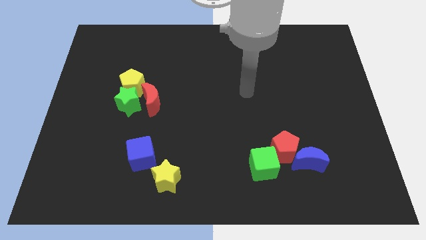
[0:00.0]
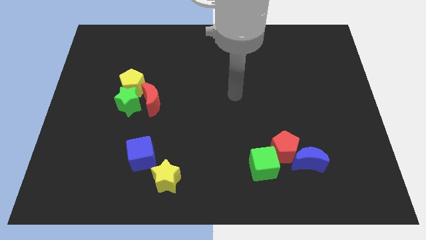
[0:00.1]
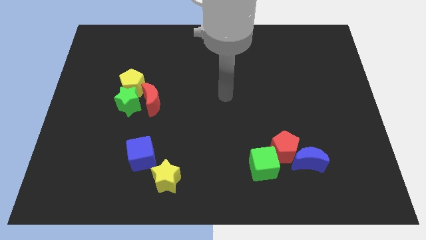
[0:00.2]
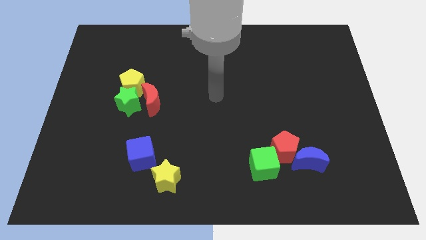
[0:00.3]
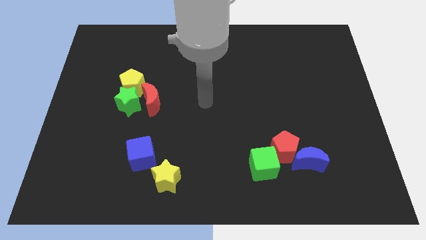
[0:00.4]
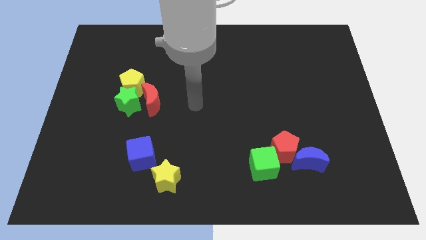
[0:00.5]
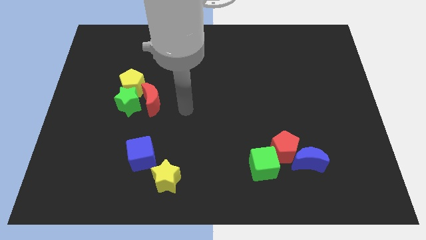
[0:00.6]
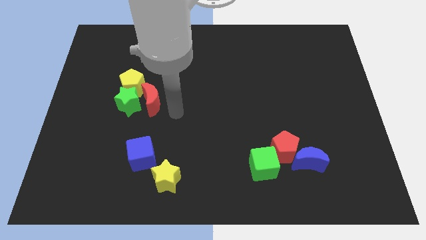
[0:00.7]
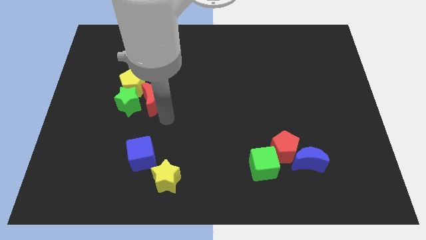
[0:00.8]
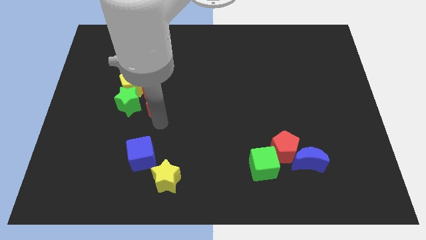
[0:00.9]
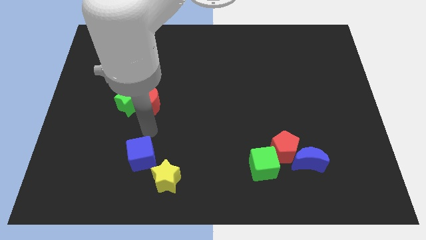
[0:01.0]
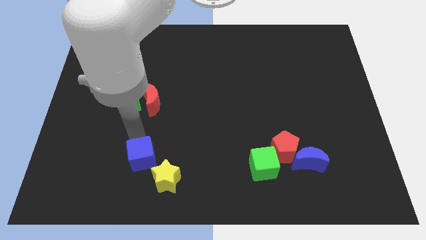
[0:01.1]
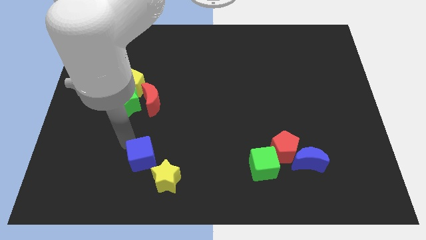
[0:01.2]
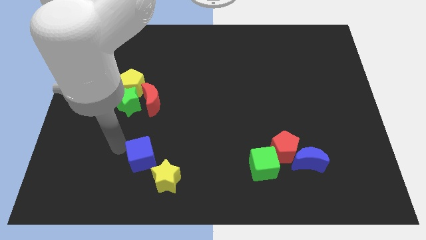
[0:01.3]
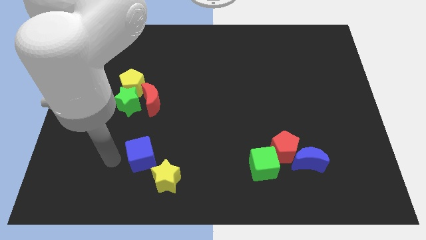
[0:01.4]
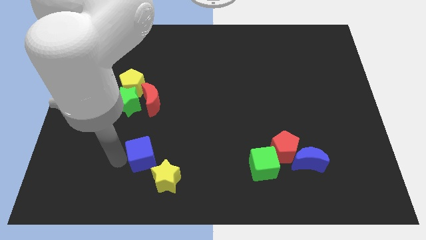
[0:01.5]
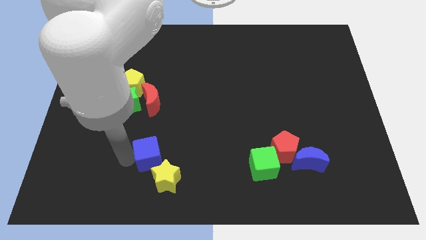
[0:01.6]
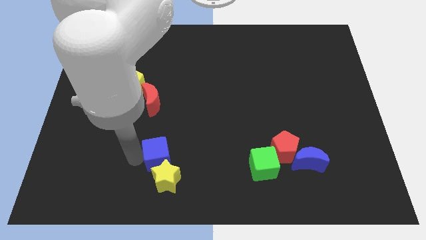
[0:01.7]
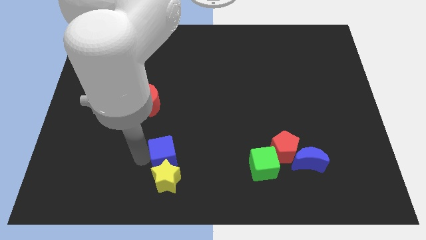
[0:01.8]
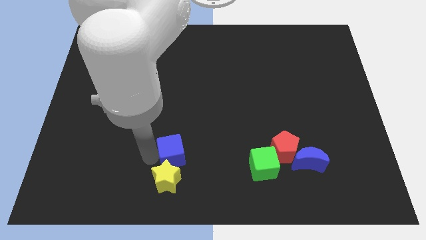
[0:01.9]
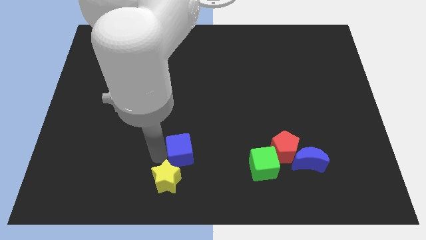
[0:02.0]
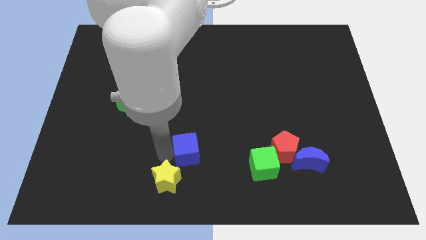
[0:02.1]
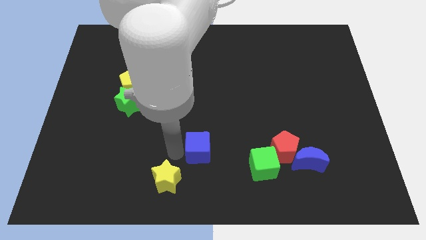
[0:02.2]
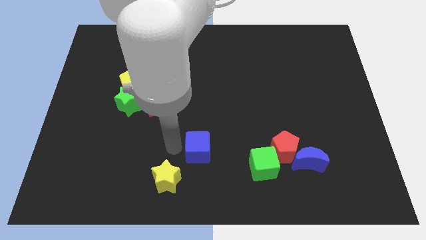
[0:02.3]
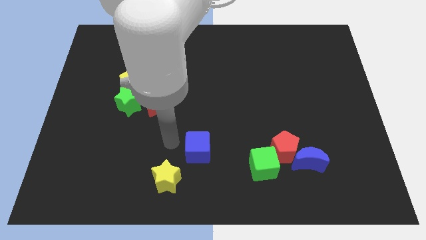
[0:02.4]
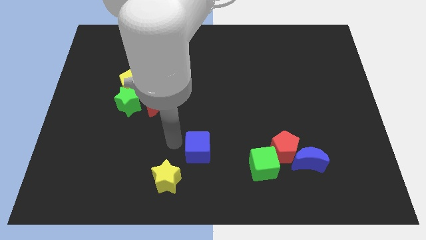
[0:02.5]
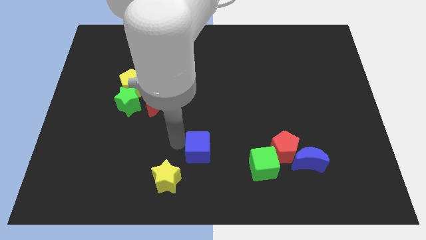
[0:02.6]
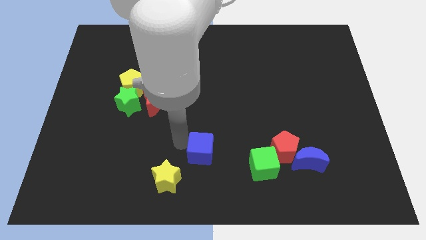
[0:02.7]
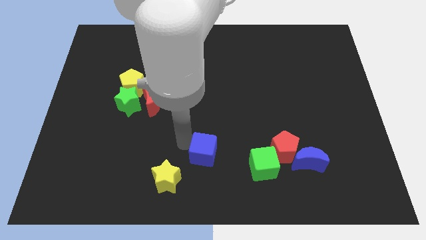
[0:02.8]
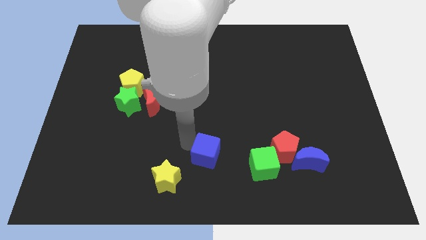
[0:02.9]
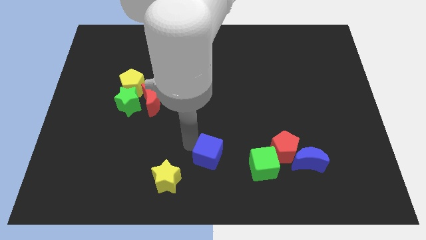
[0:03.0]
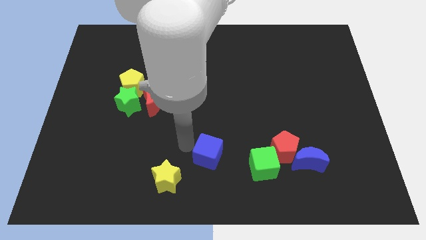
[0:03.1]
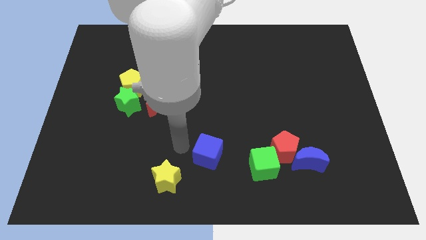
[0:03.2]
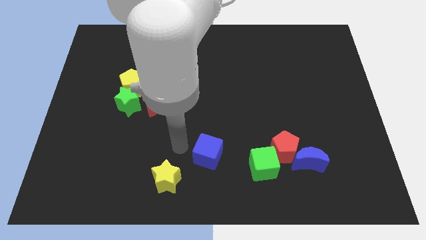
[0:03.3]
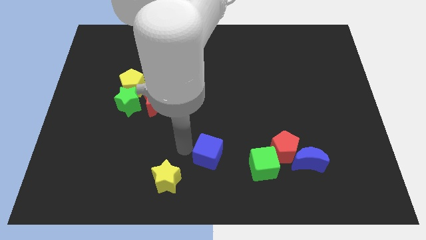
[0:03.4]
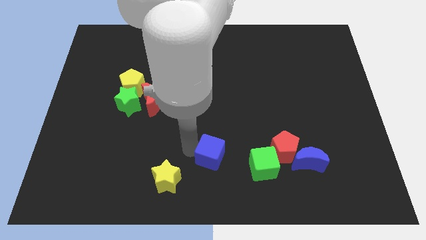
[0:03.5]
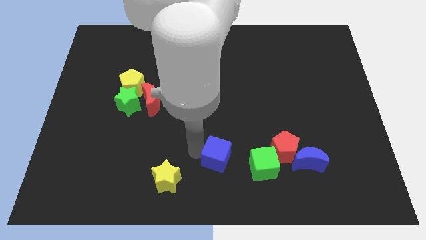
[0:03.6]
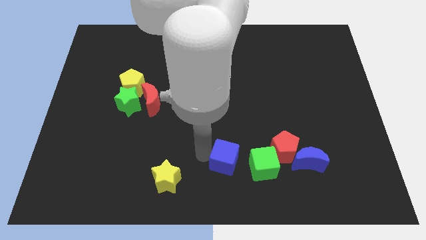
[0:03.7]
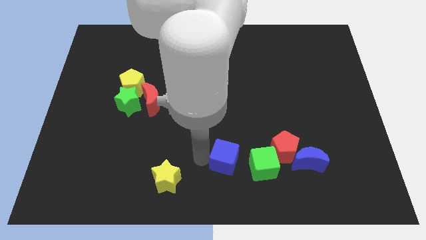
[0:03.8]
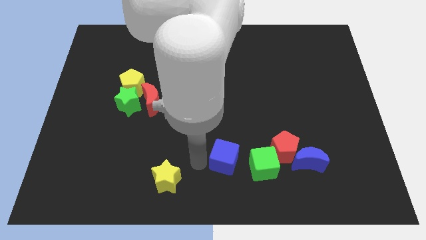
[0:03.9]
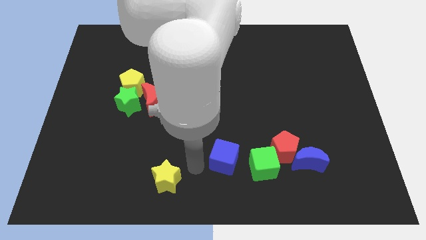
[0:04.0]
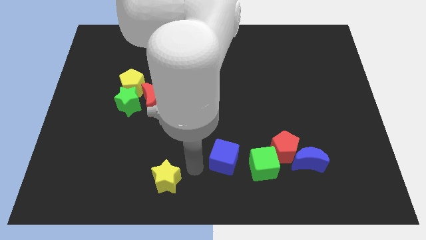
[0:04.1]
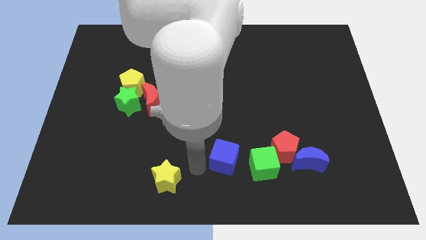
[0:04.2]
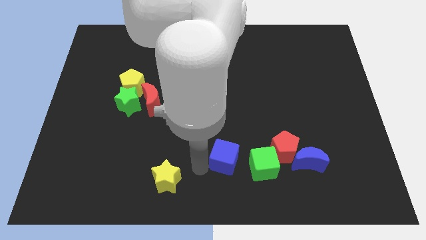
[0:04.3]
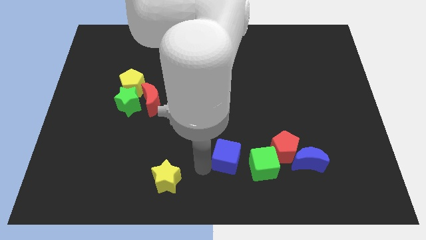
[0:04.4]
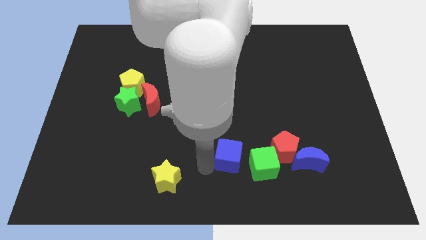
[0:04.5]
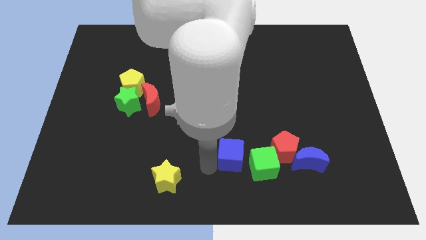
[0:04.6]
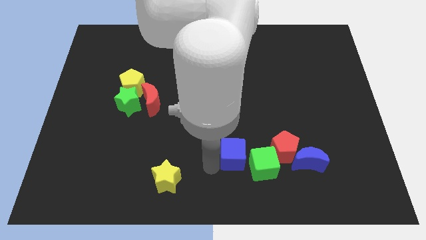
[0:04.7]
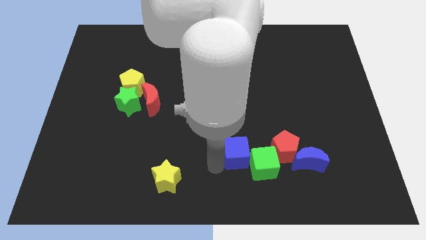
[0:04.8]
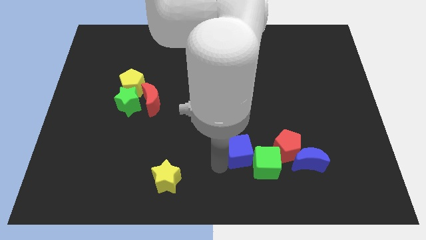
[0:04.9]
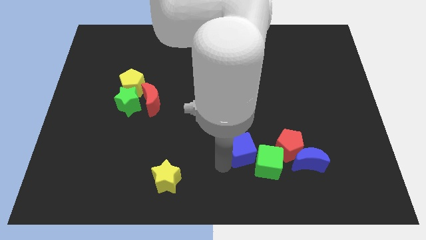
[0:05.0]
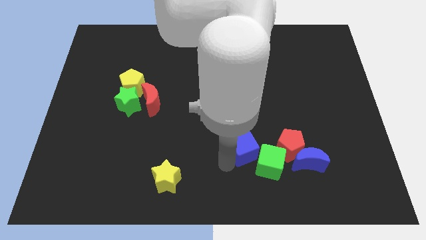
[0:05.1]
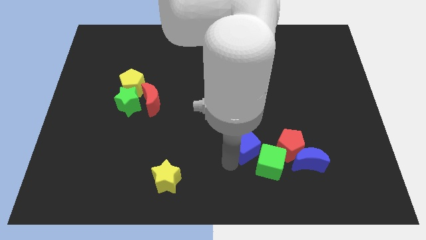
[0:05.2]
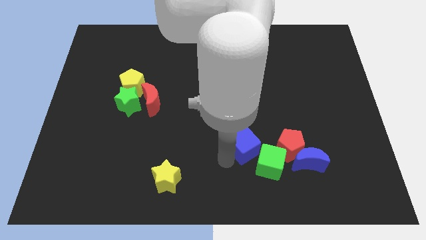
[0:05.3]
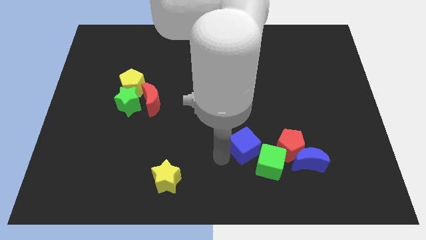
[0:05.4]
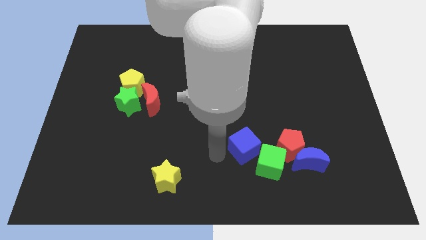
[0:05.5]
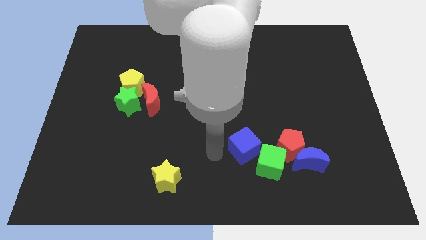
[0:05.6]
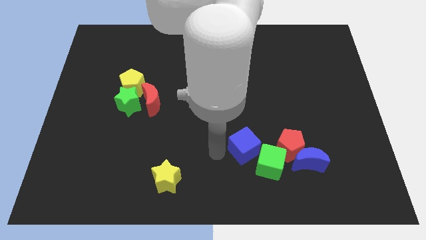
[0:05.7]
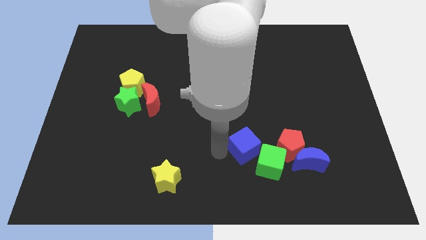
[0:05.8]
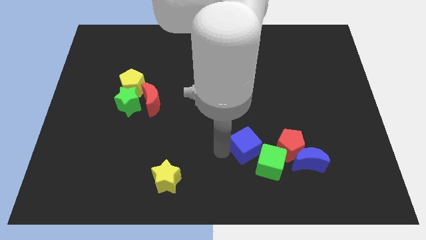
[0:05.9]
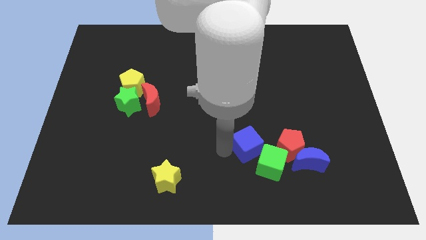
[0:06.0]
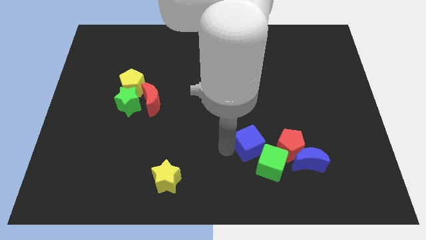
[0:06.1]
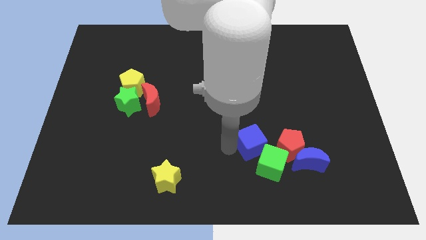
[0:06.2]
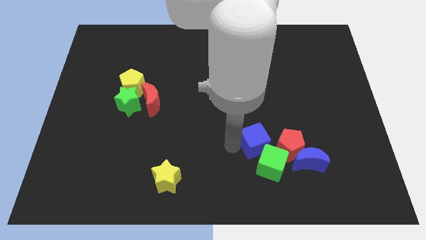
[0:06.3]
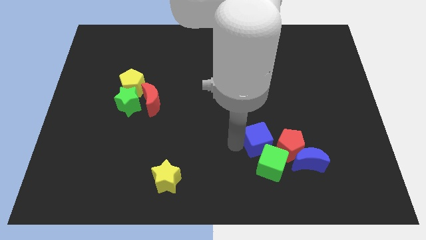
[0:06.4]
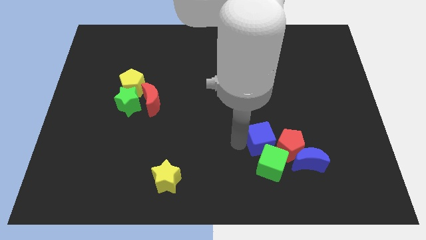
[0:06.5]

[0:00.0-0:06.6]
slide the blue cube to the red pentagon

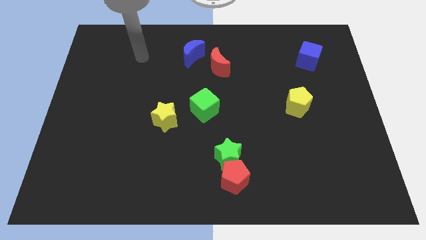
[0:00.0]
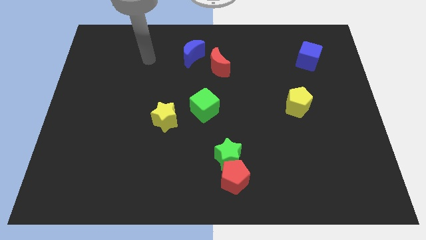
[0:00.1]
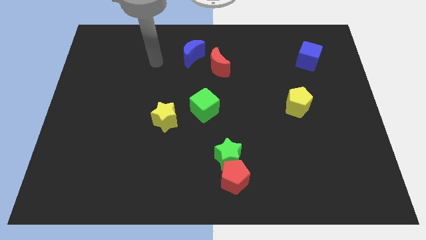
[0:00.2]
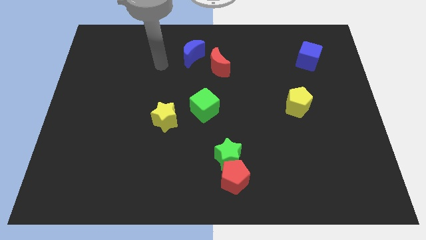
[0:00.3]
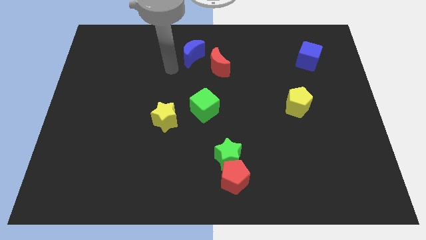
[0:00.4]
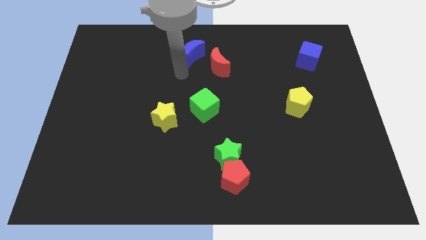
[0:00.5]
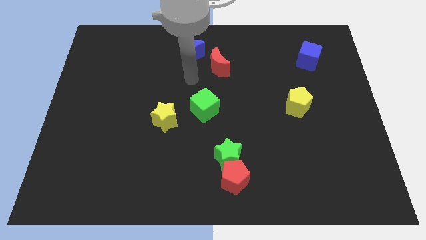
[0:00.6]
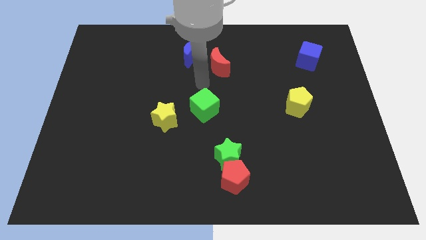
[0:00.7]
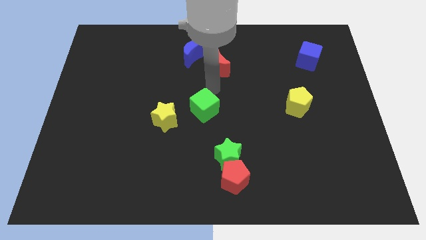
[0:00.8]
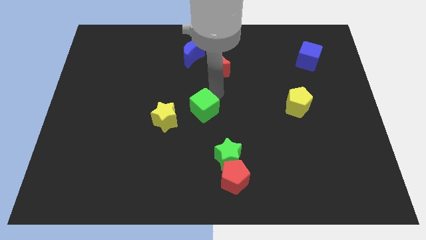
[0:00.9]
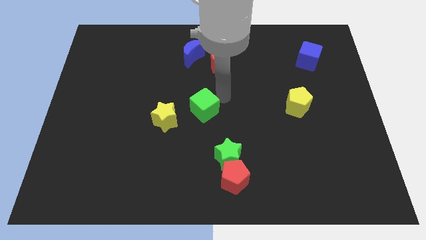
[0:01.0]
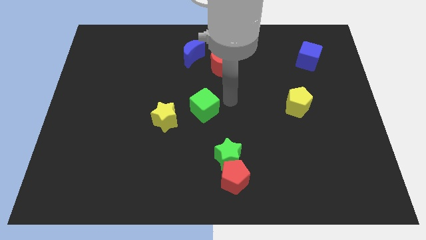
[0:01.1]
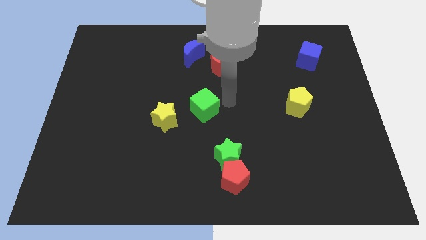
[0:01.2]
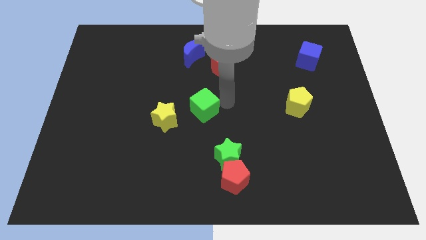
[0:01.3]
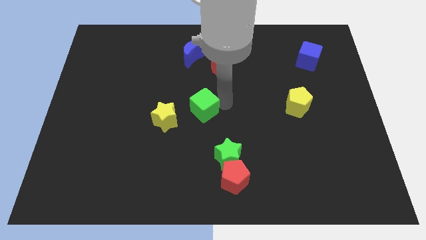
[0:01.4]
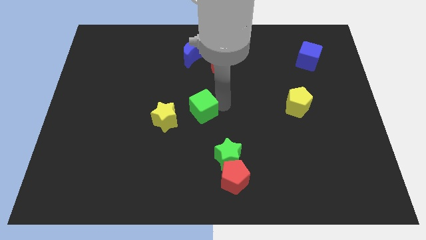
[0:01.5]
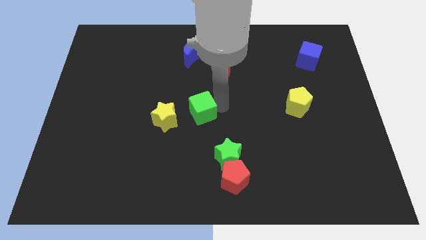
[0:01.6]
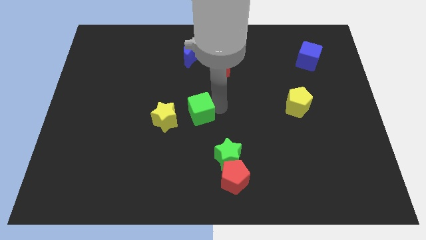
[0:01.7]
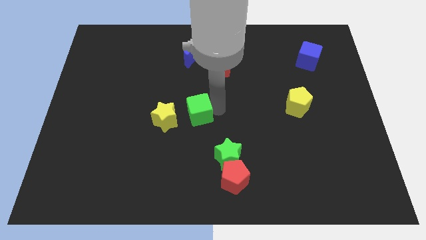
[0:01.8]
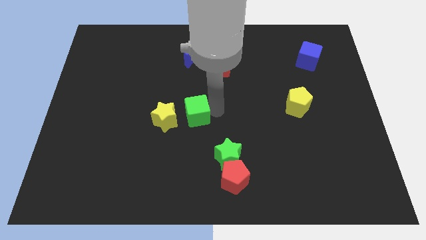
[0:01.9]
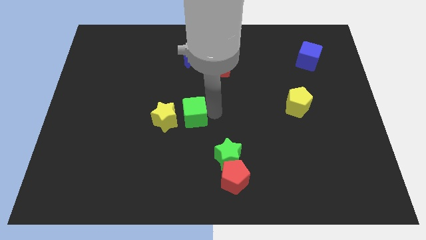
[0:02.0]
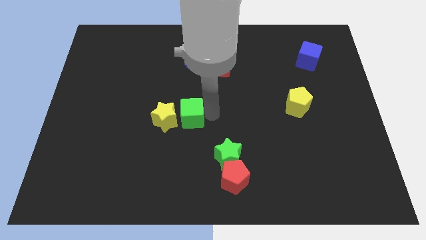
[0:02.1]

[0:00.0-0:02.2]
move the green cube close to the yellow star
